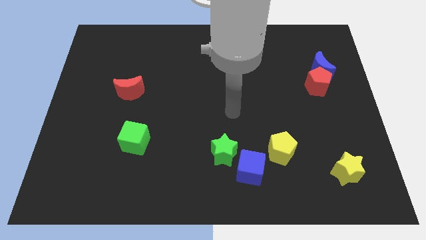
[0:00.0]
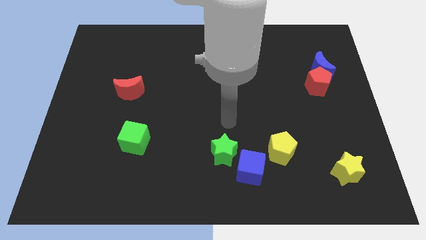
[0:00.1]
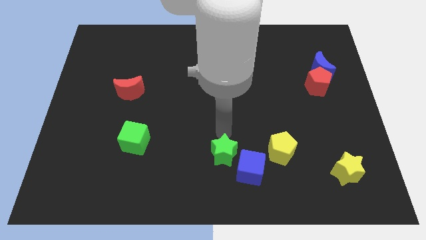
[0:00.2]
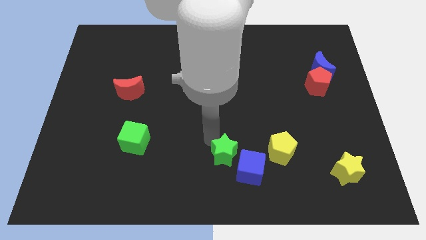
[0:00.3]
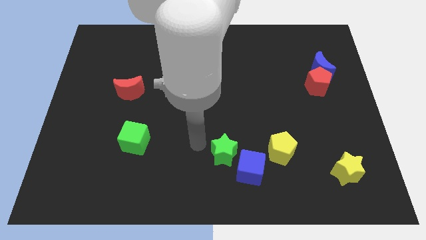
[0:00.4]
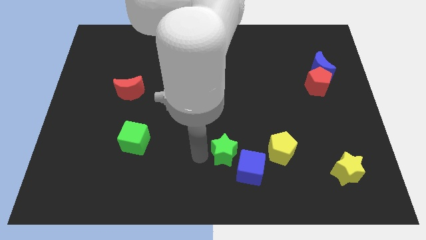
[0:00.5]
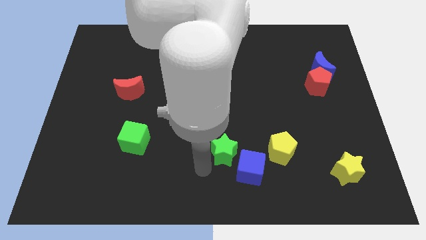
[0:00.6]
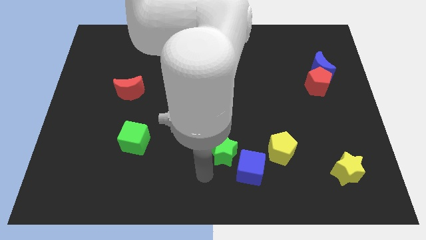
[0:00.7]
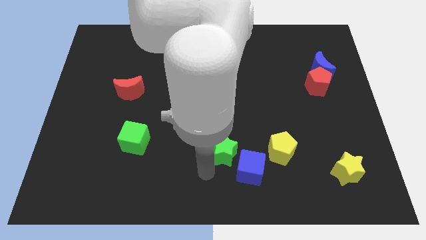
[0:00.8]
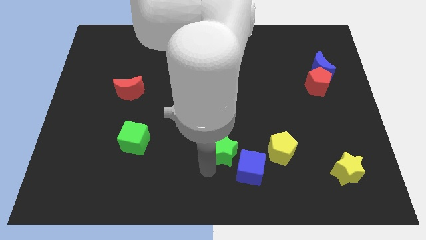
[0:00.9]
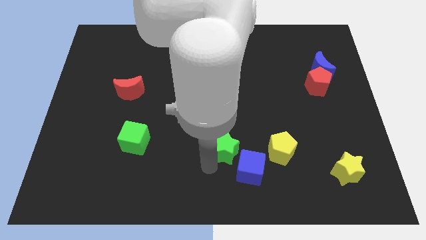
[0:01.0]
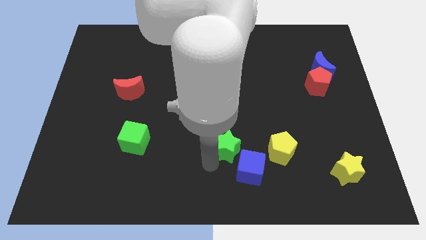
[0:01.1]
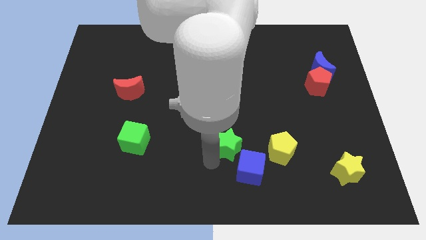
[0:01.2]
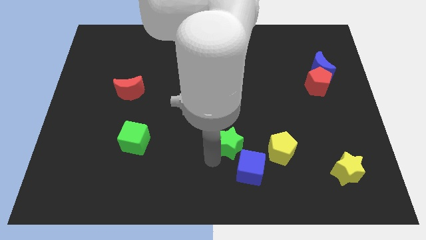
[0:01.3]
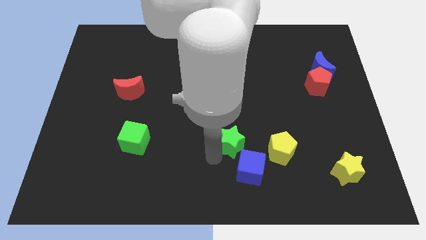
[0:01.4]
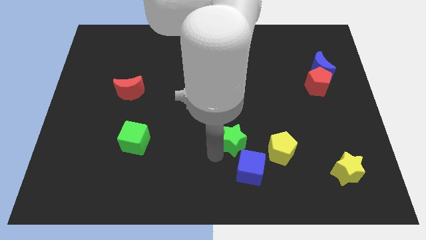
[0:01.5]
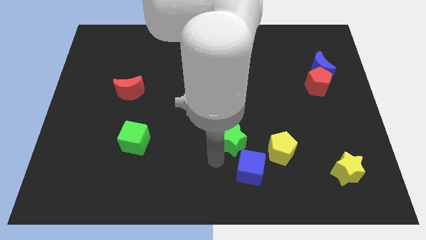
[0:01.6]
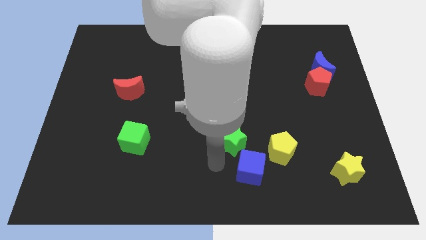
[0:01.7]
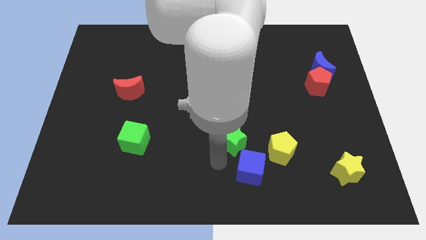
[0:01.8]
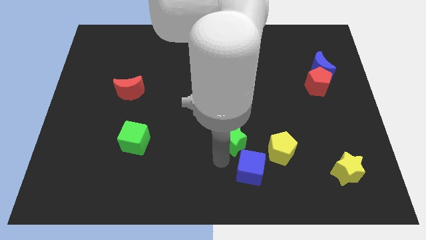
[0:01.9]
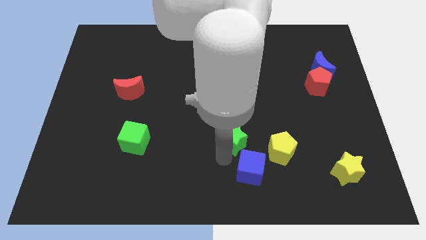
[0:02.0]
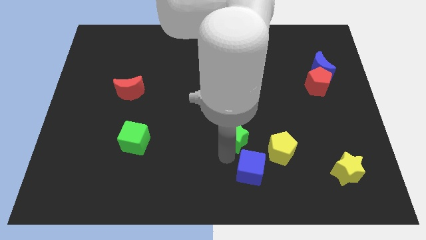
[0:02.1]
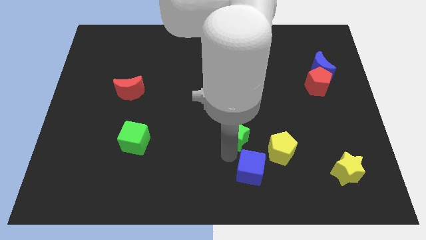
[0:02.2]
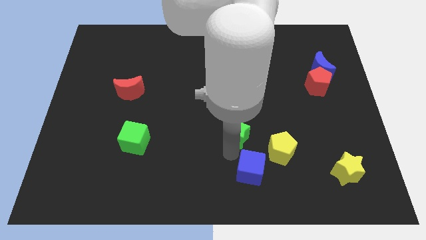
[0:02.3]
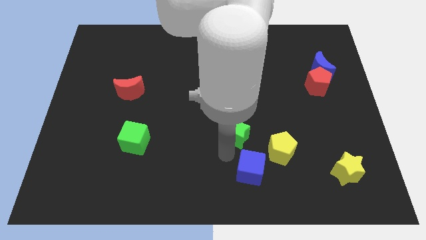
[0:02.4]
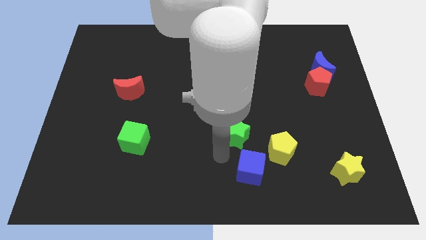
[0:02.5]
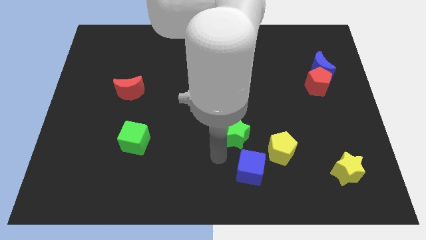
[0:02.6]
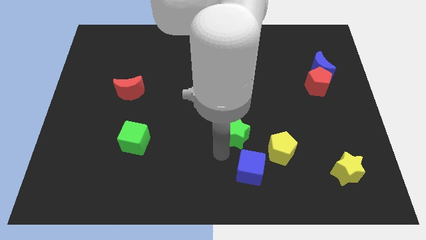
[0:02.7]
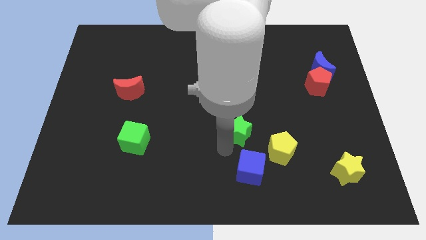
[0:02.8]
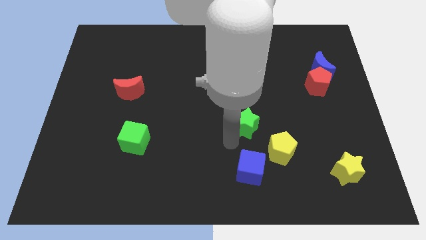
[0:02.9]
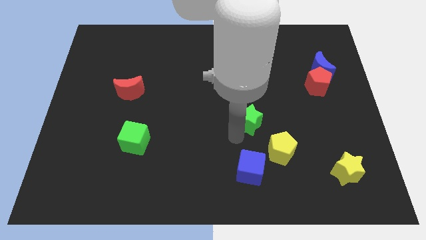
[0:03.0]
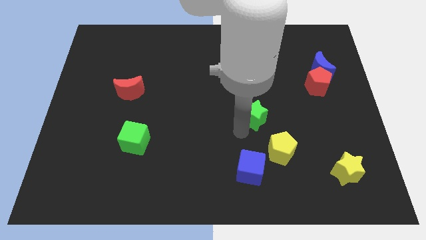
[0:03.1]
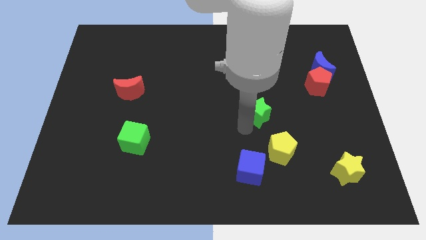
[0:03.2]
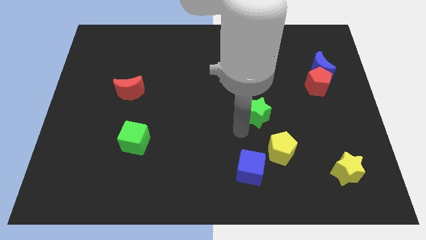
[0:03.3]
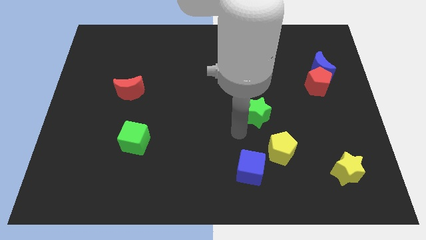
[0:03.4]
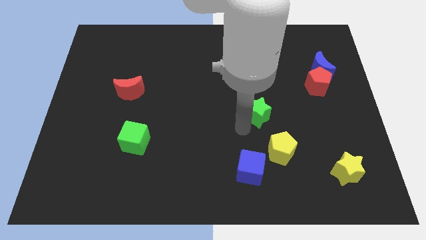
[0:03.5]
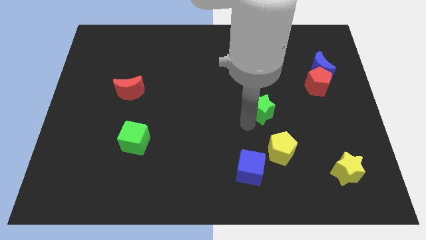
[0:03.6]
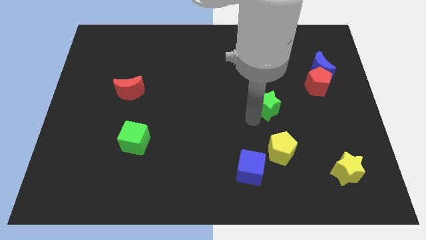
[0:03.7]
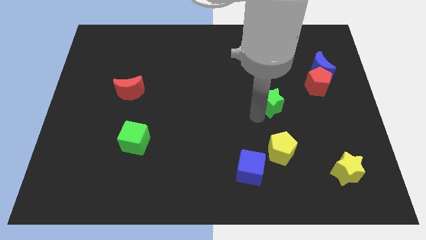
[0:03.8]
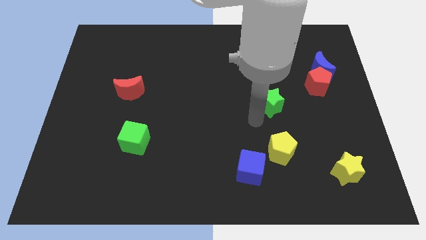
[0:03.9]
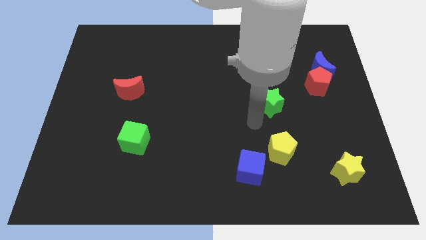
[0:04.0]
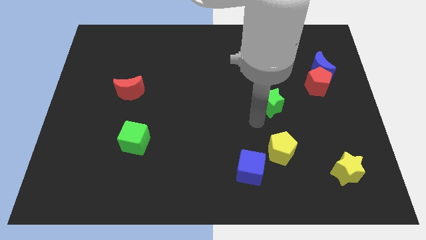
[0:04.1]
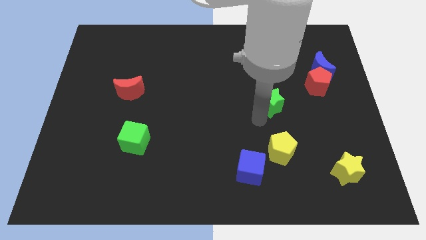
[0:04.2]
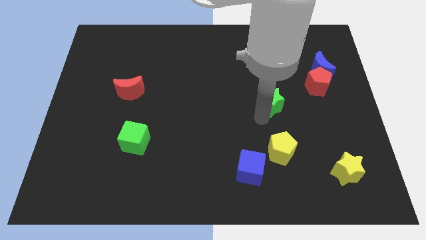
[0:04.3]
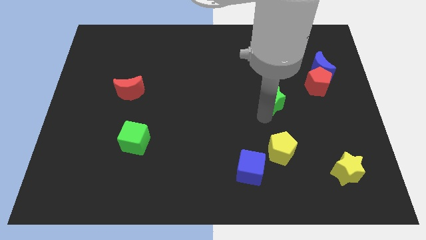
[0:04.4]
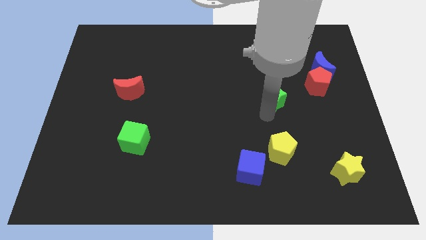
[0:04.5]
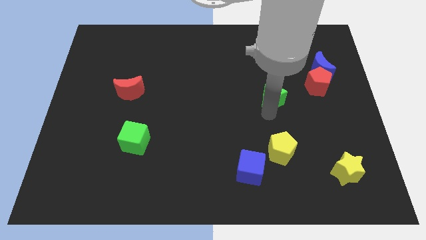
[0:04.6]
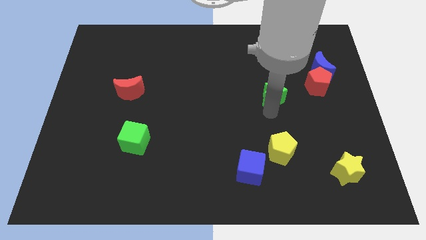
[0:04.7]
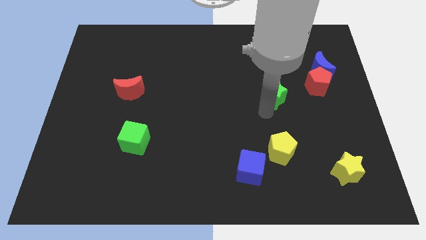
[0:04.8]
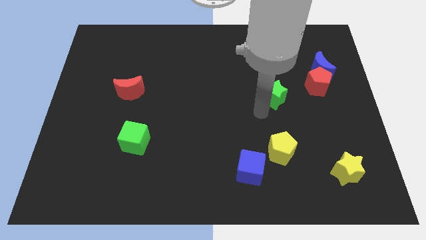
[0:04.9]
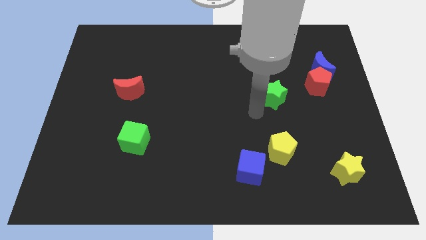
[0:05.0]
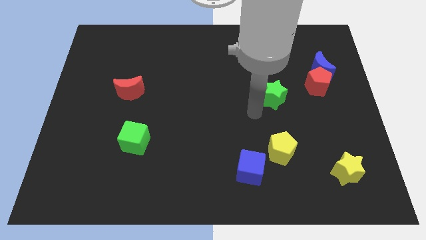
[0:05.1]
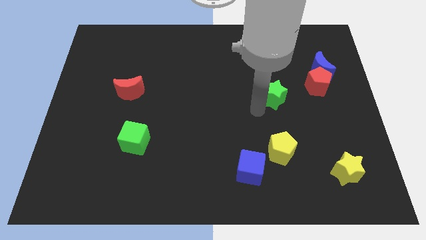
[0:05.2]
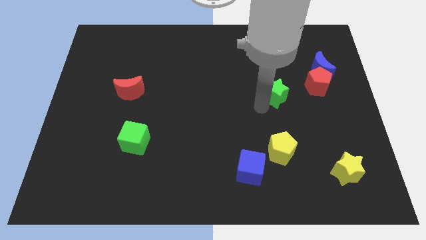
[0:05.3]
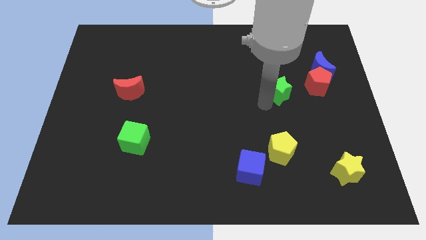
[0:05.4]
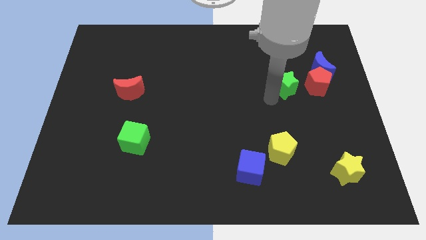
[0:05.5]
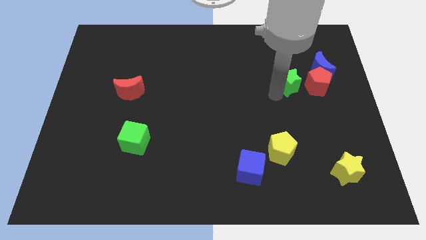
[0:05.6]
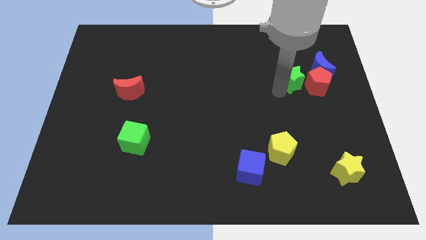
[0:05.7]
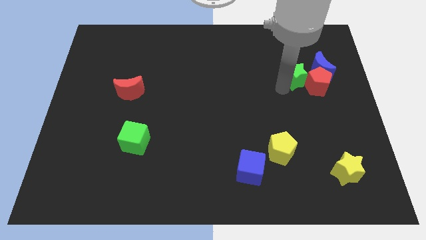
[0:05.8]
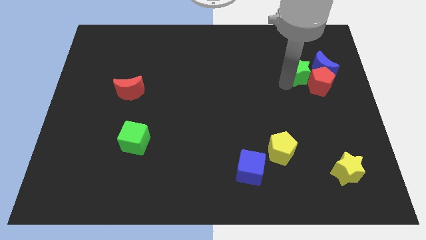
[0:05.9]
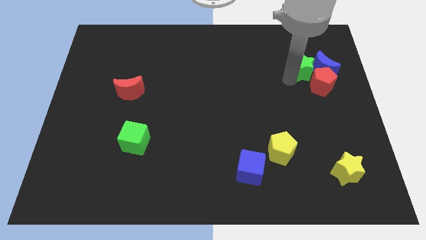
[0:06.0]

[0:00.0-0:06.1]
push the green star to the blue moon

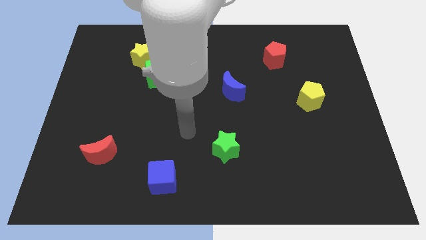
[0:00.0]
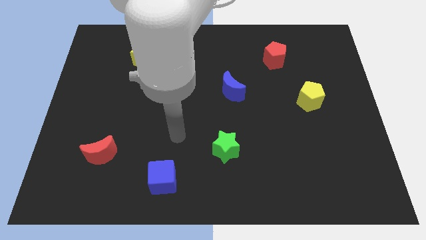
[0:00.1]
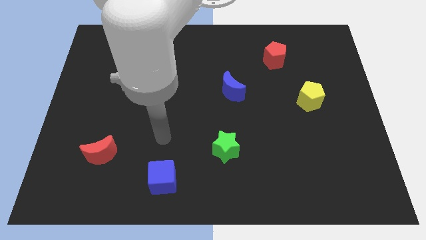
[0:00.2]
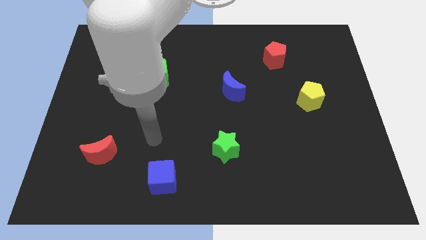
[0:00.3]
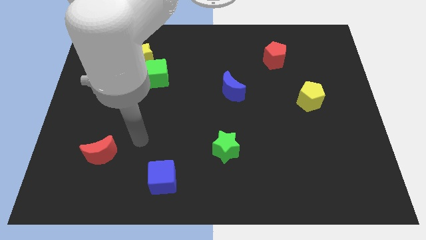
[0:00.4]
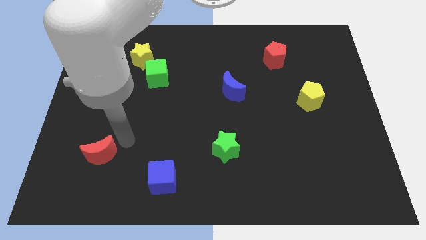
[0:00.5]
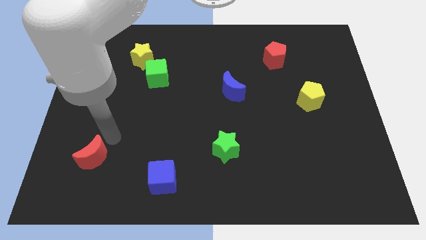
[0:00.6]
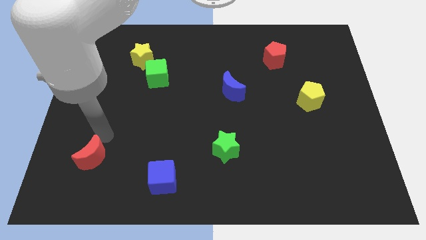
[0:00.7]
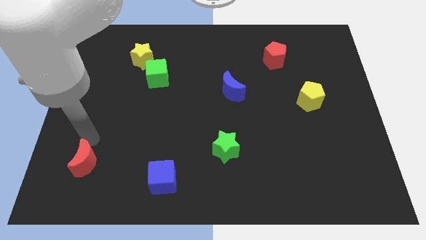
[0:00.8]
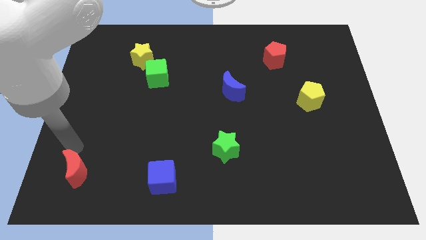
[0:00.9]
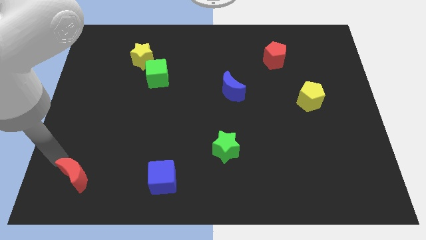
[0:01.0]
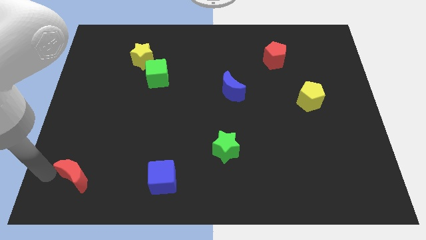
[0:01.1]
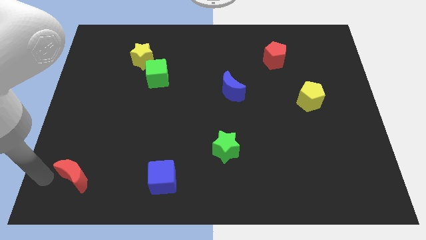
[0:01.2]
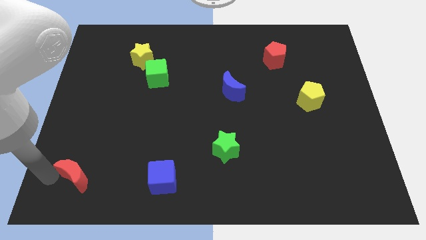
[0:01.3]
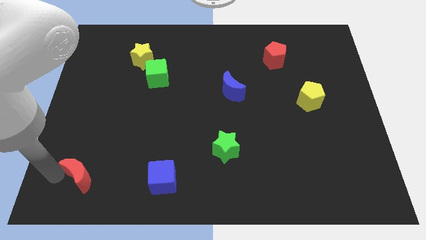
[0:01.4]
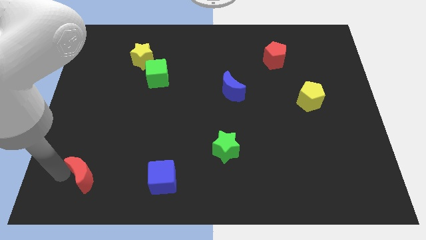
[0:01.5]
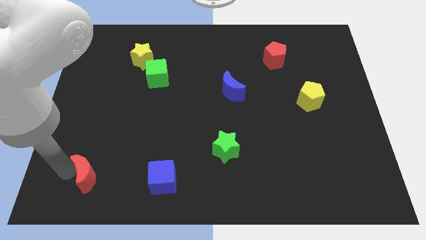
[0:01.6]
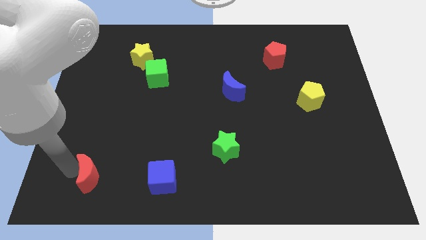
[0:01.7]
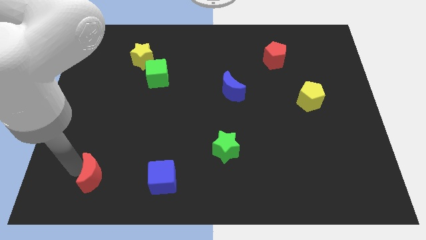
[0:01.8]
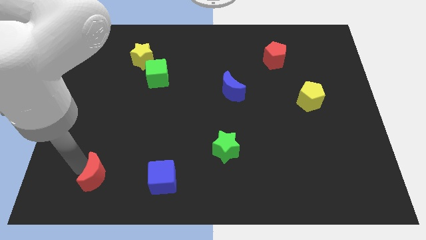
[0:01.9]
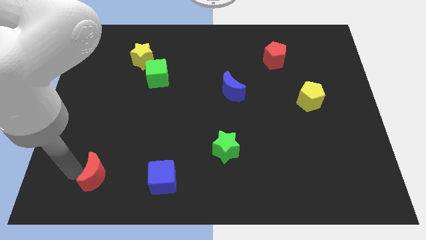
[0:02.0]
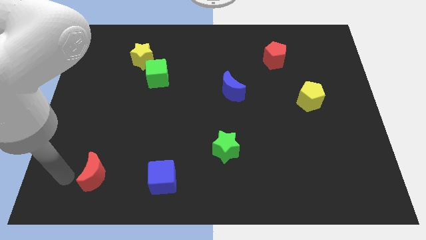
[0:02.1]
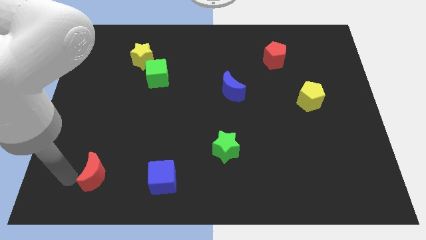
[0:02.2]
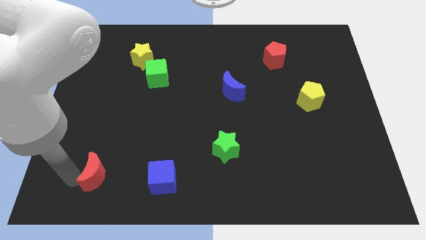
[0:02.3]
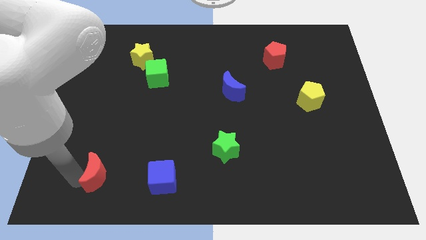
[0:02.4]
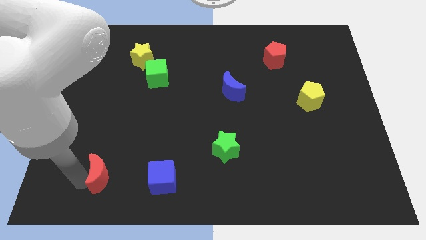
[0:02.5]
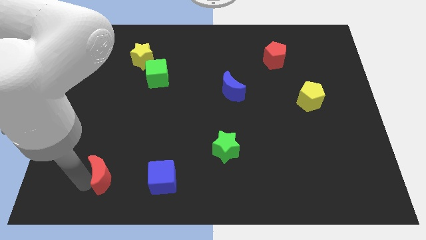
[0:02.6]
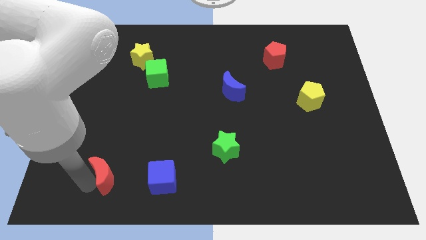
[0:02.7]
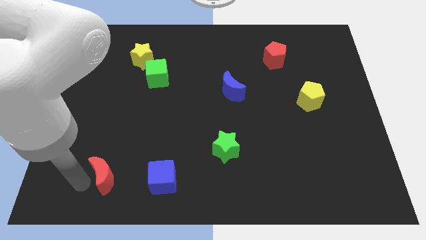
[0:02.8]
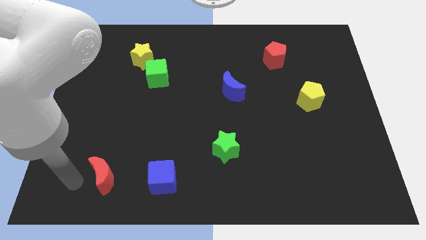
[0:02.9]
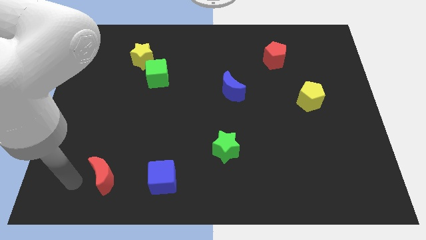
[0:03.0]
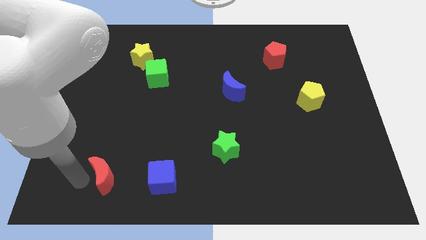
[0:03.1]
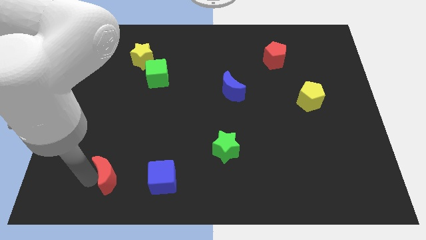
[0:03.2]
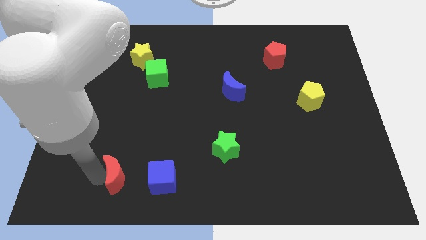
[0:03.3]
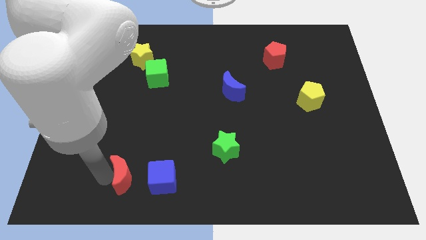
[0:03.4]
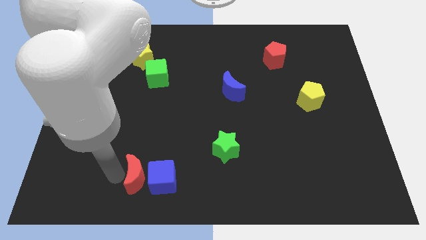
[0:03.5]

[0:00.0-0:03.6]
put the red moon to the blue cube
